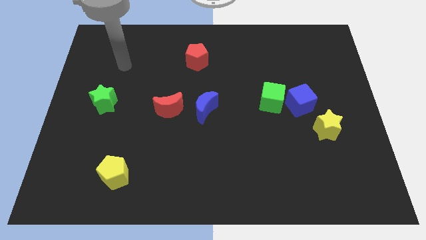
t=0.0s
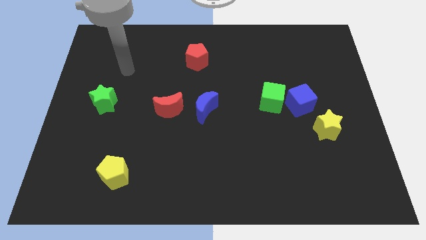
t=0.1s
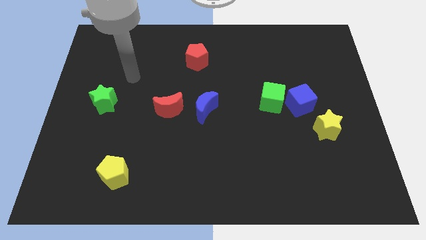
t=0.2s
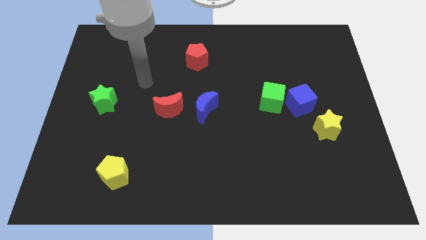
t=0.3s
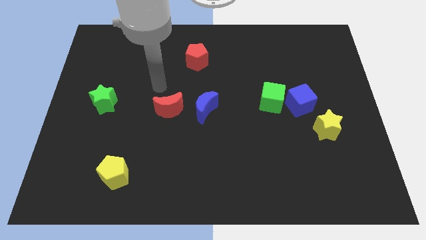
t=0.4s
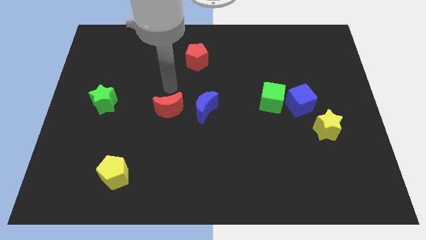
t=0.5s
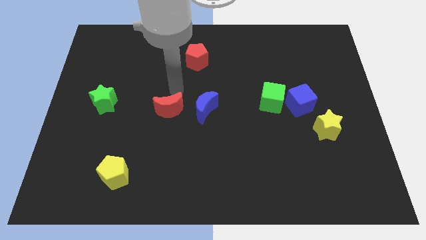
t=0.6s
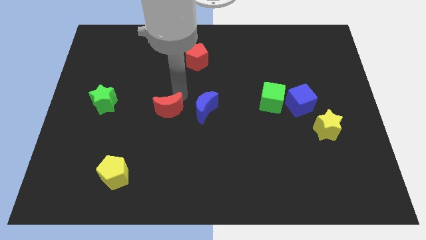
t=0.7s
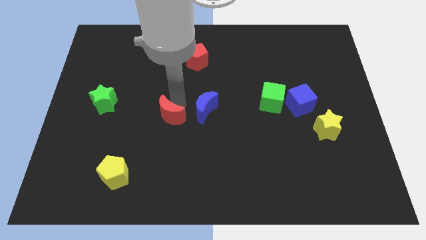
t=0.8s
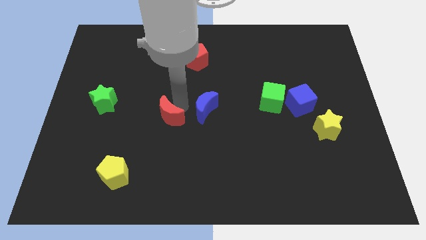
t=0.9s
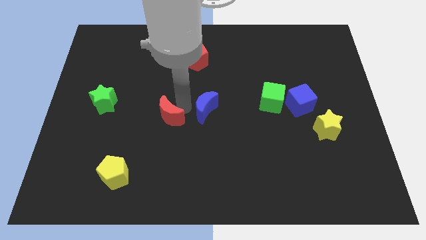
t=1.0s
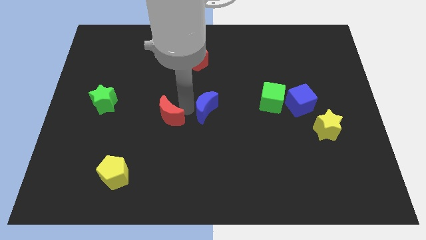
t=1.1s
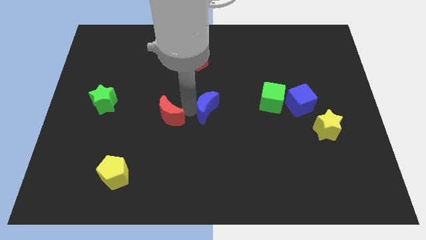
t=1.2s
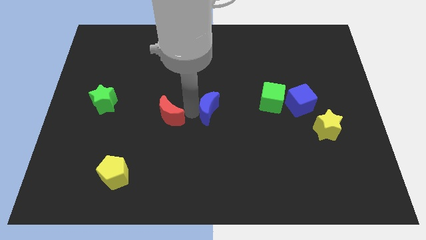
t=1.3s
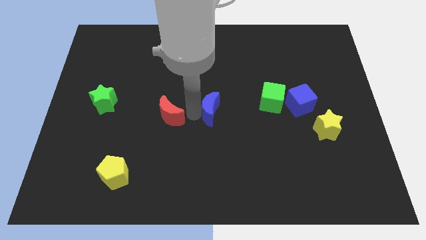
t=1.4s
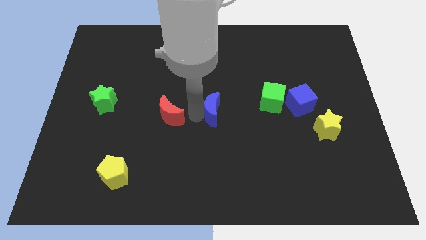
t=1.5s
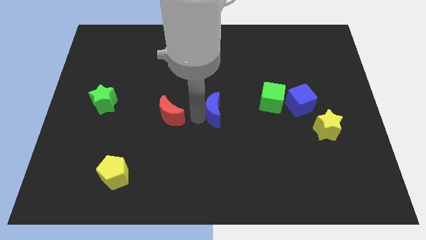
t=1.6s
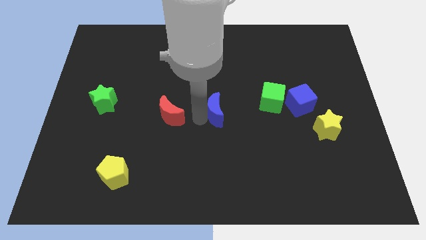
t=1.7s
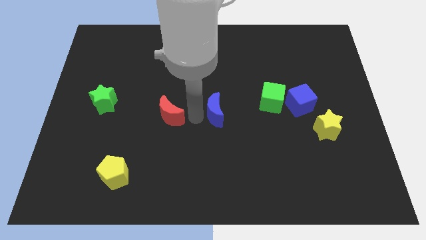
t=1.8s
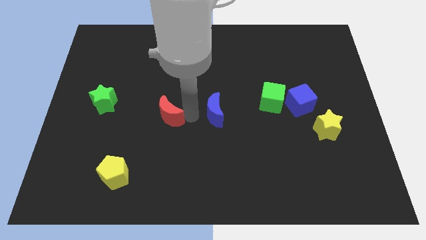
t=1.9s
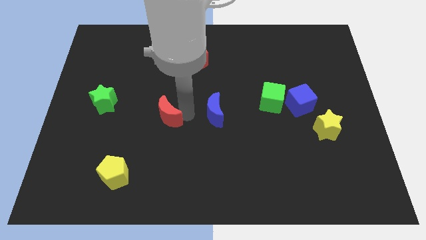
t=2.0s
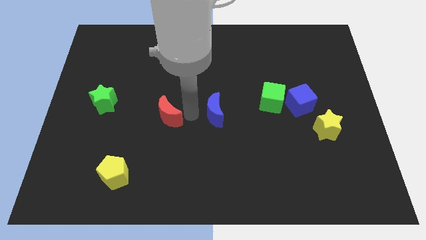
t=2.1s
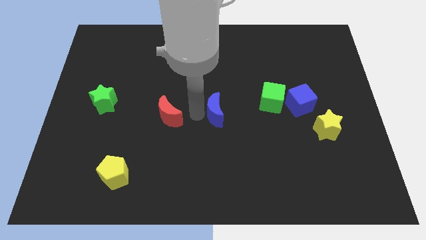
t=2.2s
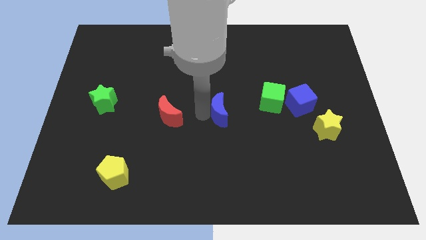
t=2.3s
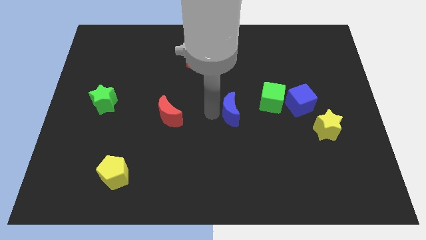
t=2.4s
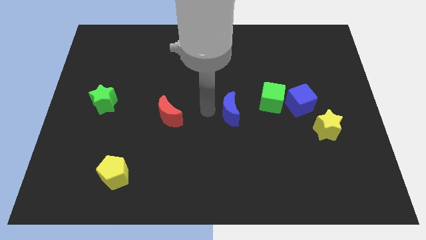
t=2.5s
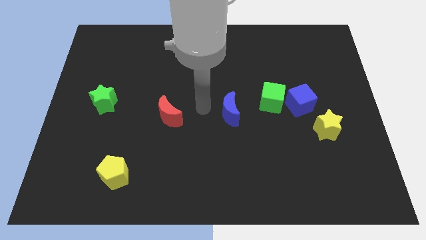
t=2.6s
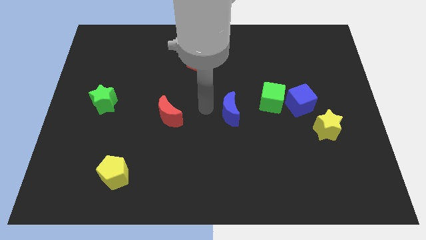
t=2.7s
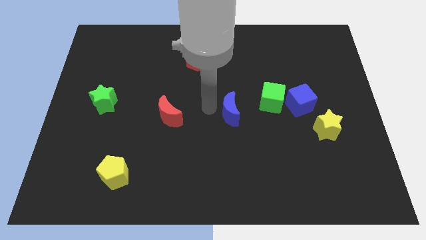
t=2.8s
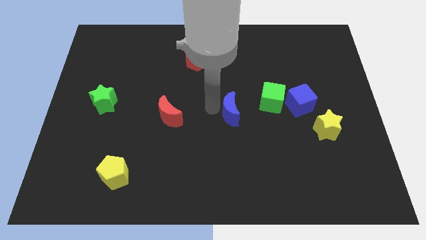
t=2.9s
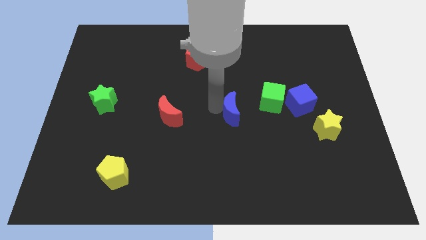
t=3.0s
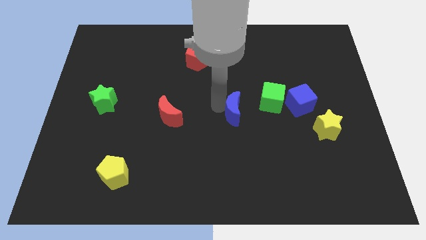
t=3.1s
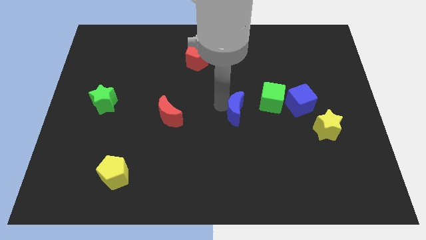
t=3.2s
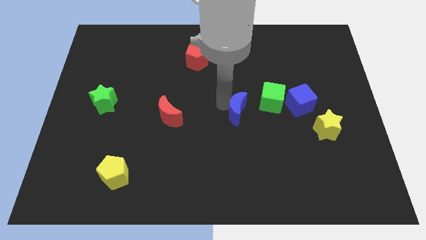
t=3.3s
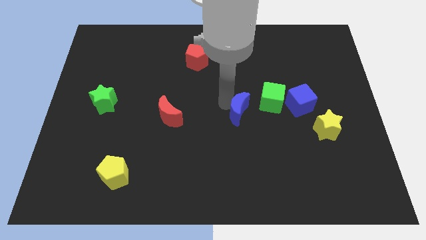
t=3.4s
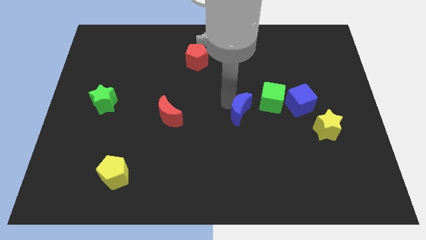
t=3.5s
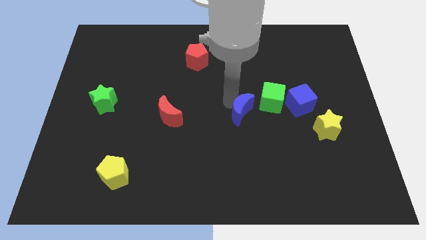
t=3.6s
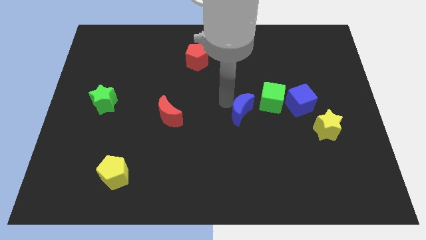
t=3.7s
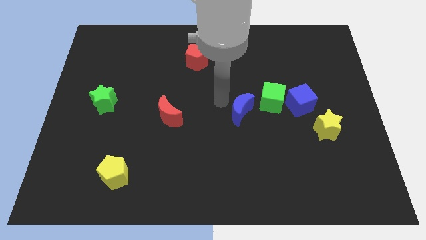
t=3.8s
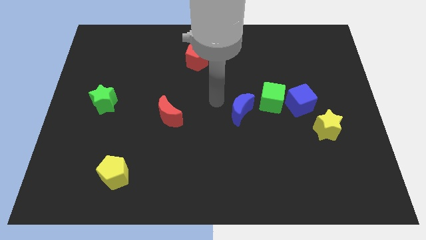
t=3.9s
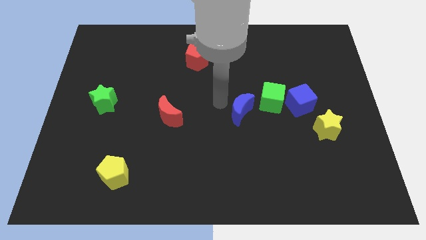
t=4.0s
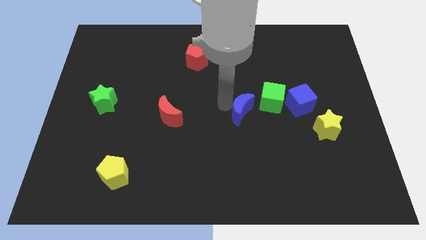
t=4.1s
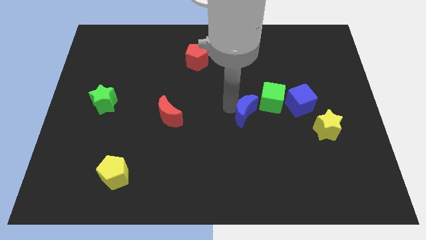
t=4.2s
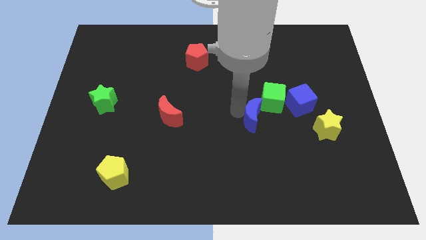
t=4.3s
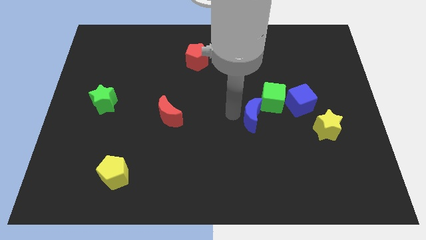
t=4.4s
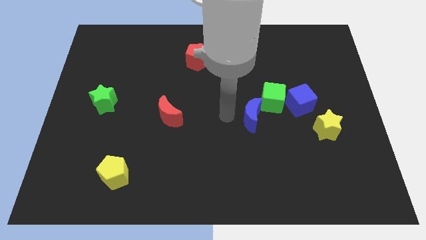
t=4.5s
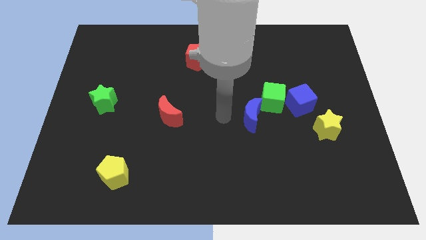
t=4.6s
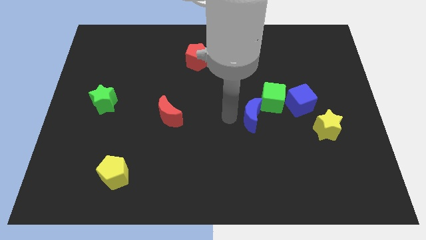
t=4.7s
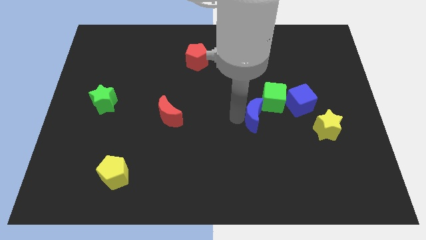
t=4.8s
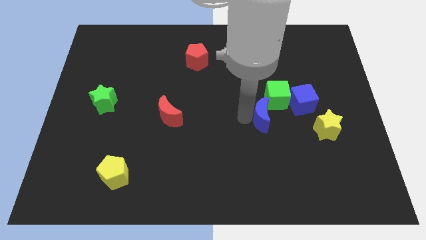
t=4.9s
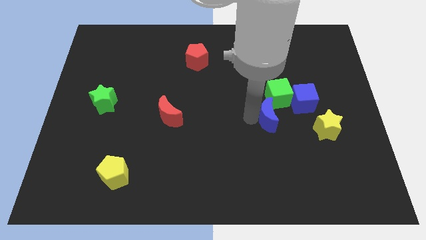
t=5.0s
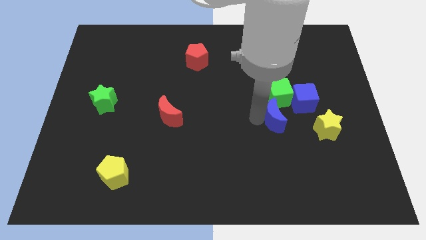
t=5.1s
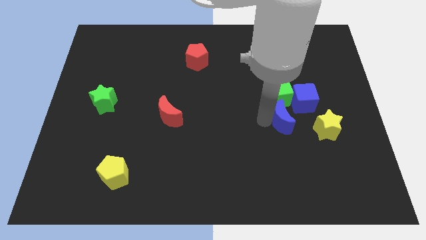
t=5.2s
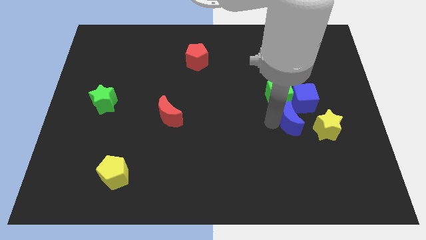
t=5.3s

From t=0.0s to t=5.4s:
put the blue moon diagonally down and to the right of the green cube

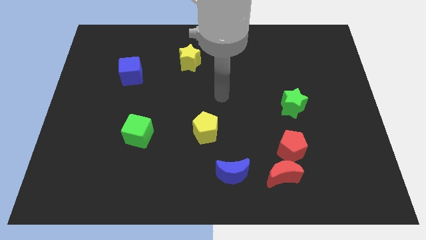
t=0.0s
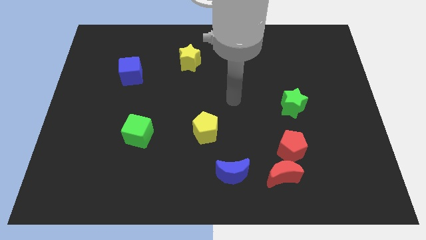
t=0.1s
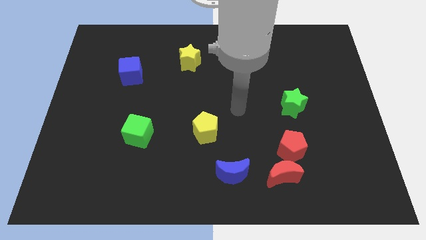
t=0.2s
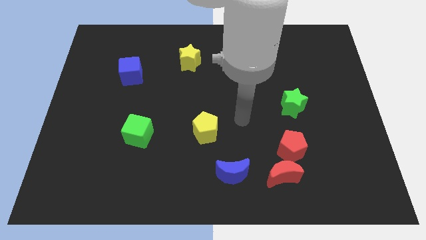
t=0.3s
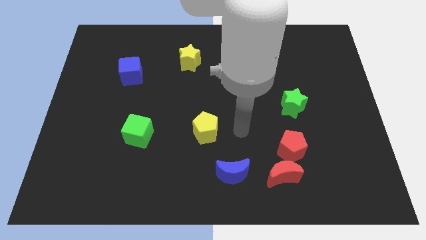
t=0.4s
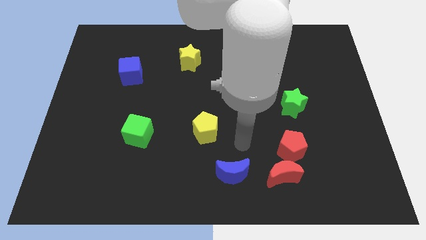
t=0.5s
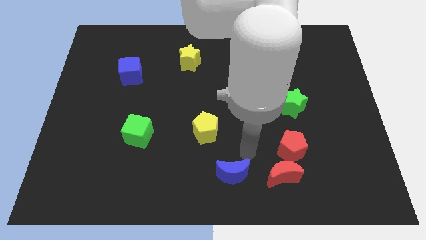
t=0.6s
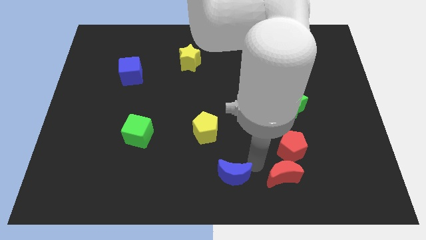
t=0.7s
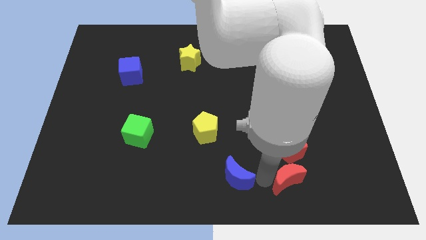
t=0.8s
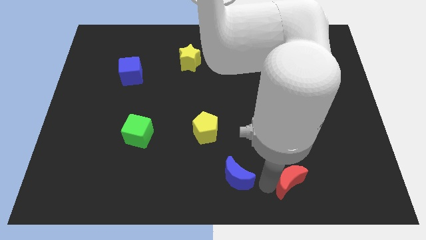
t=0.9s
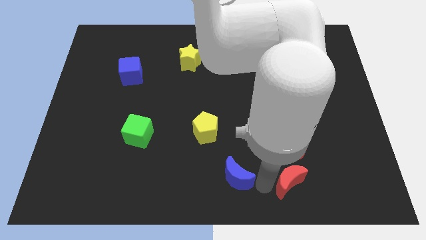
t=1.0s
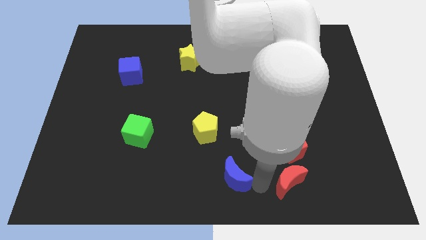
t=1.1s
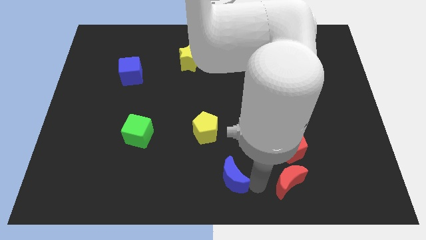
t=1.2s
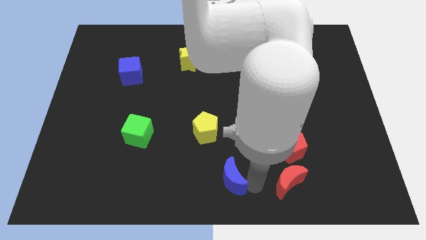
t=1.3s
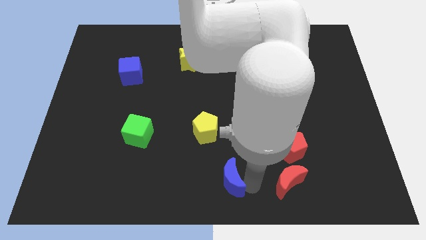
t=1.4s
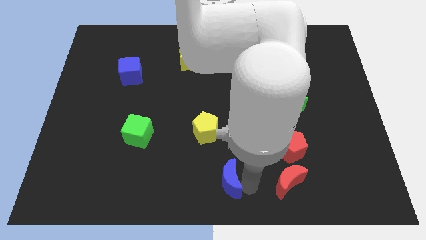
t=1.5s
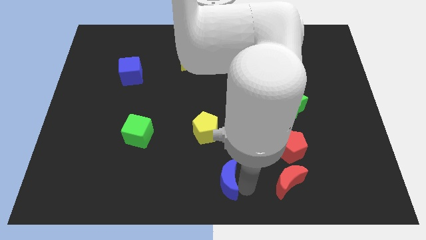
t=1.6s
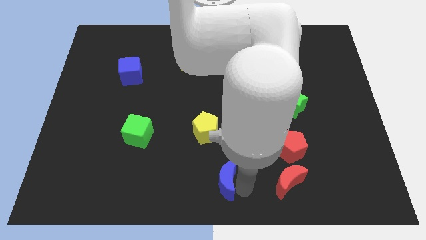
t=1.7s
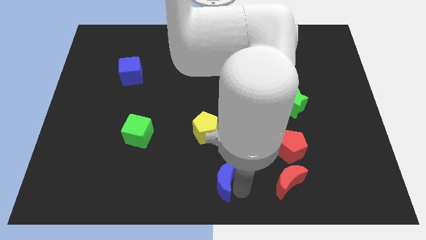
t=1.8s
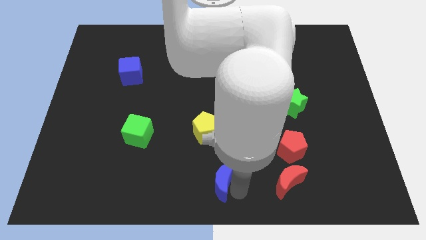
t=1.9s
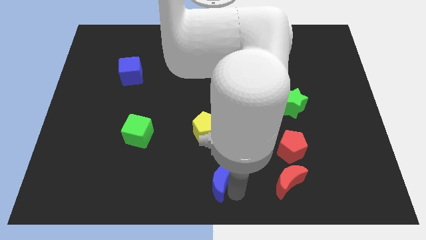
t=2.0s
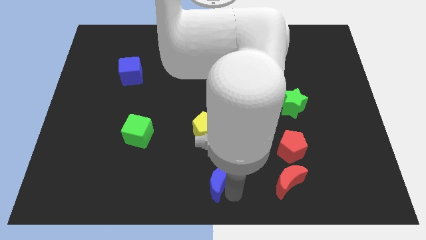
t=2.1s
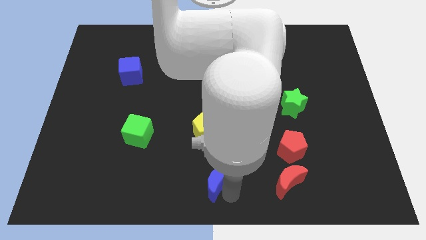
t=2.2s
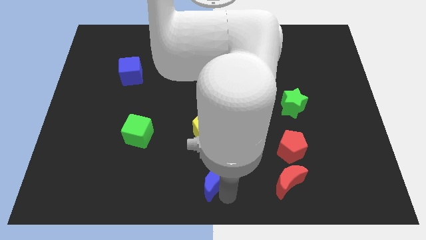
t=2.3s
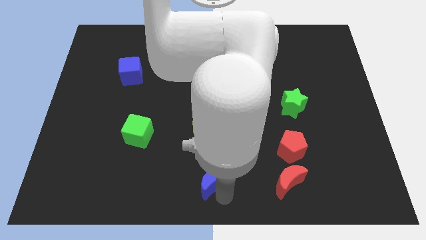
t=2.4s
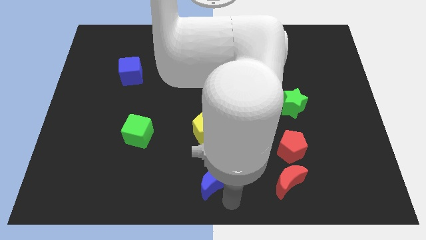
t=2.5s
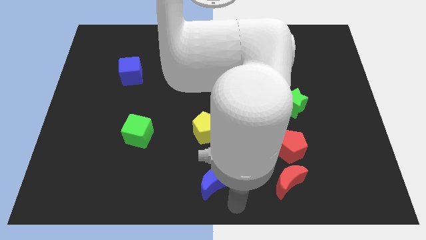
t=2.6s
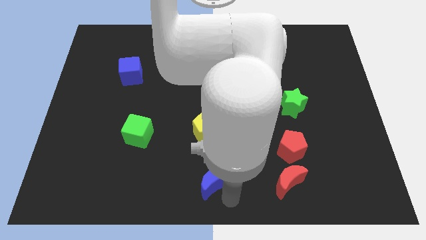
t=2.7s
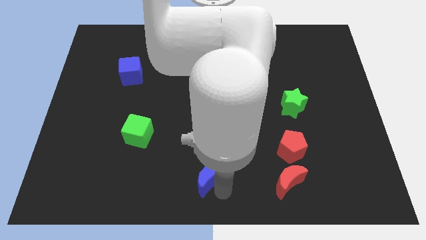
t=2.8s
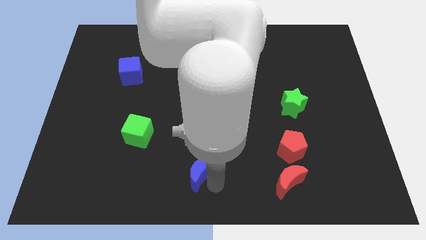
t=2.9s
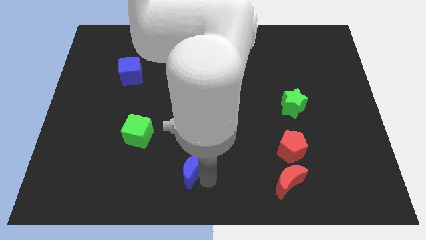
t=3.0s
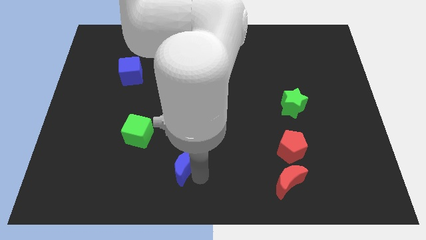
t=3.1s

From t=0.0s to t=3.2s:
slide the blue moon diagonally down and to the left of the yellow pentagon
